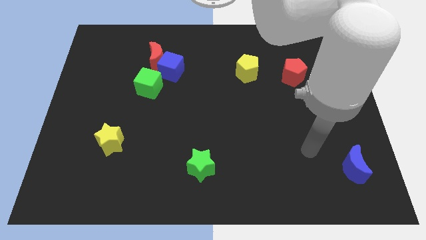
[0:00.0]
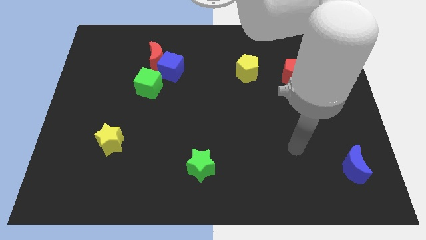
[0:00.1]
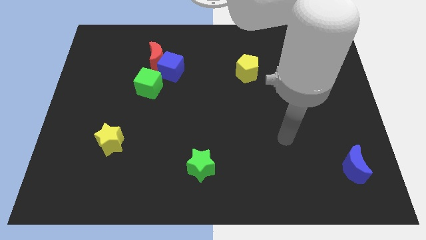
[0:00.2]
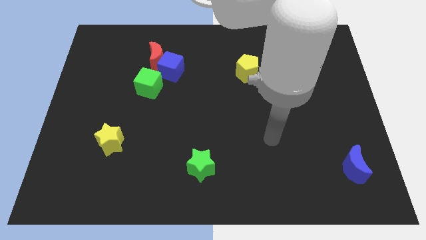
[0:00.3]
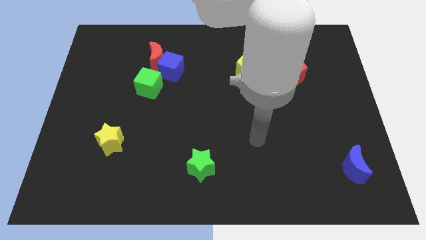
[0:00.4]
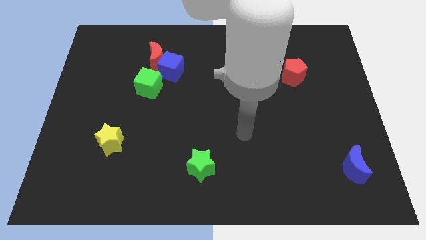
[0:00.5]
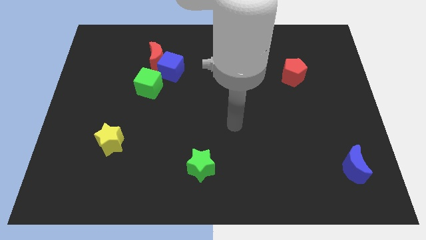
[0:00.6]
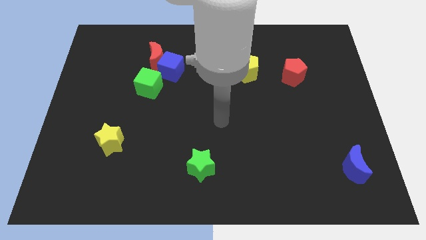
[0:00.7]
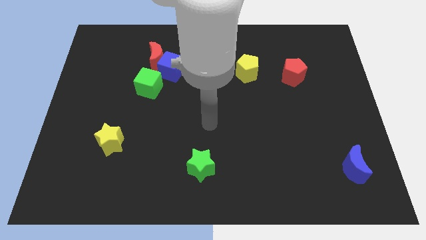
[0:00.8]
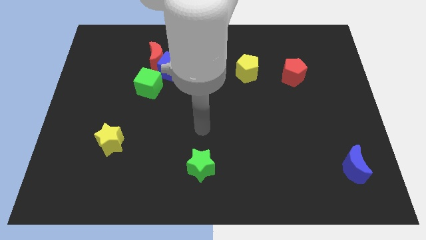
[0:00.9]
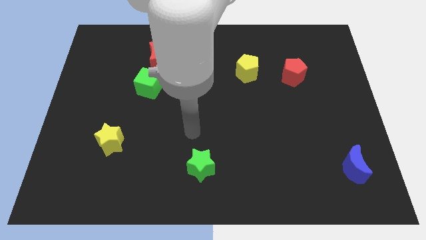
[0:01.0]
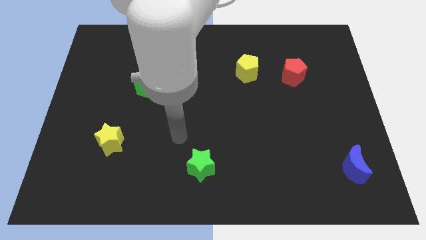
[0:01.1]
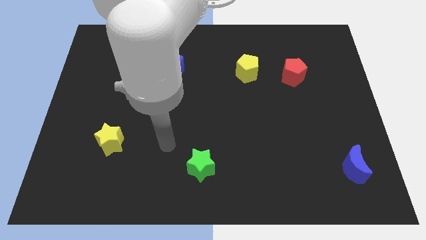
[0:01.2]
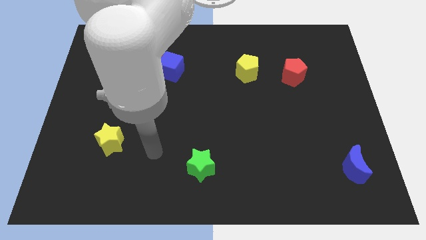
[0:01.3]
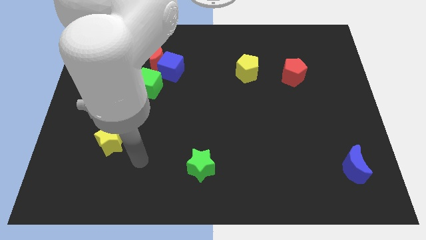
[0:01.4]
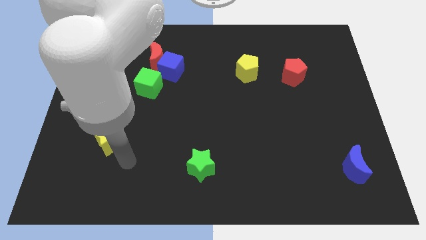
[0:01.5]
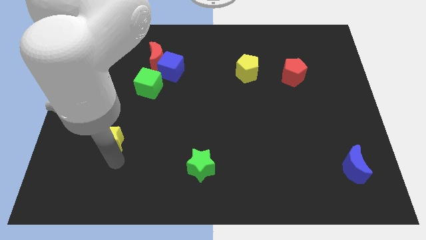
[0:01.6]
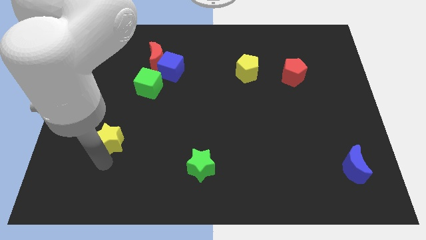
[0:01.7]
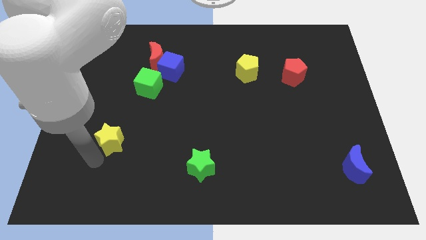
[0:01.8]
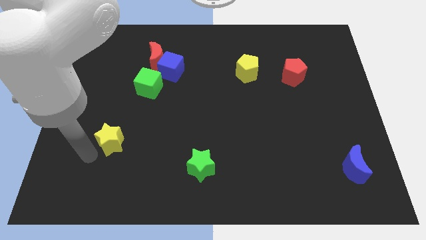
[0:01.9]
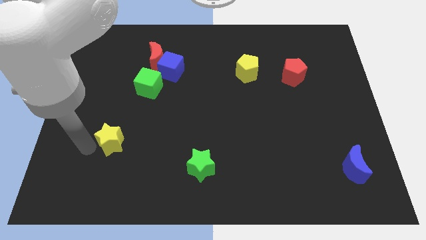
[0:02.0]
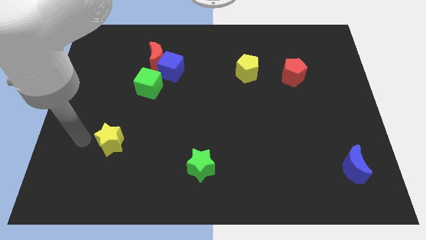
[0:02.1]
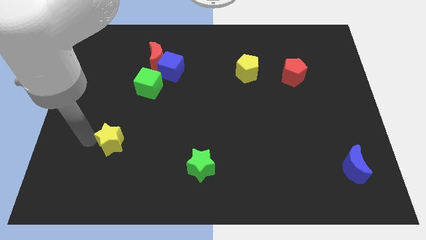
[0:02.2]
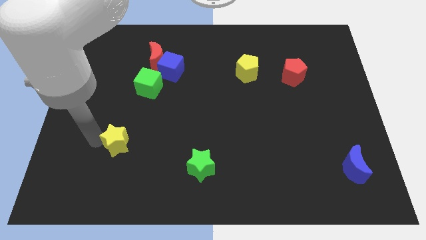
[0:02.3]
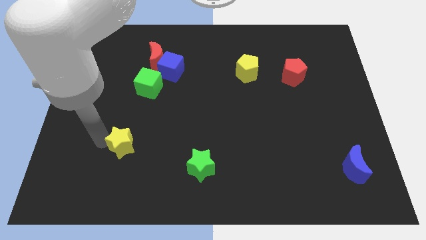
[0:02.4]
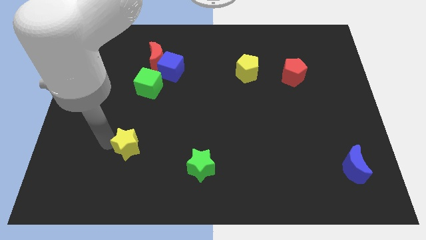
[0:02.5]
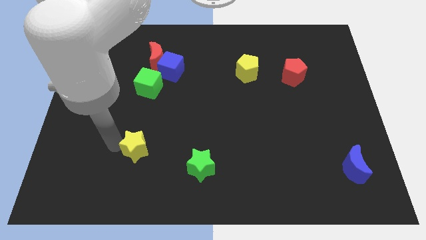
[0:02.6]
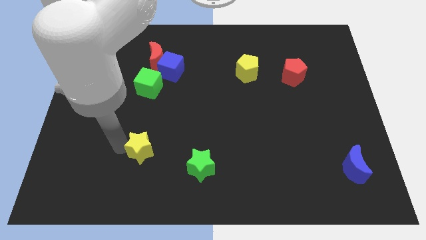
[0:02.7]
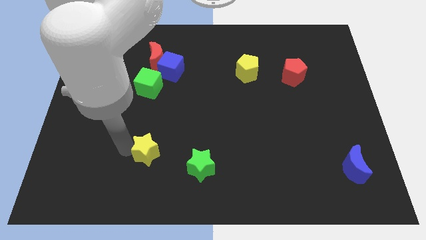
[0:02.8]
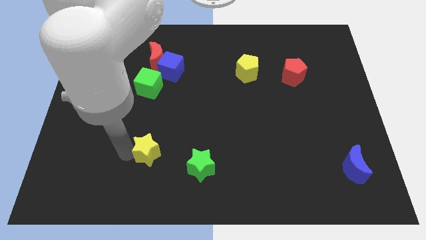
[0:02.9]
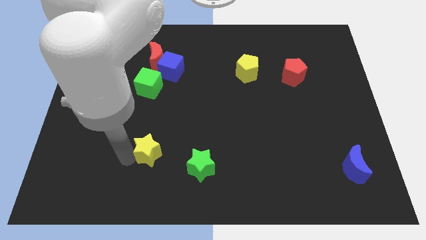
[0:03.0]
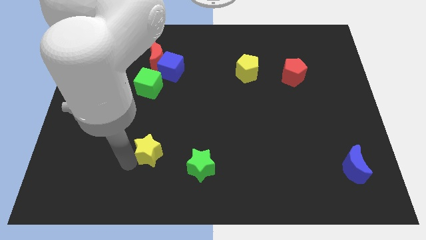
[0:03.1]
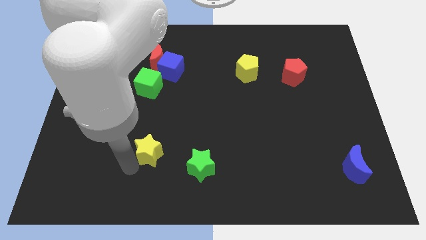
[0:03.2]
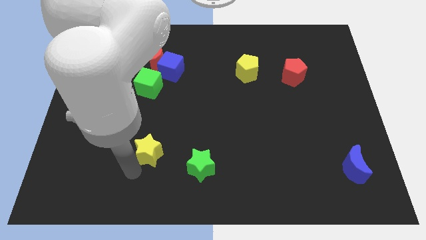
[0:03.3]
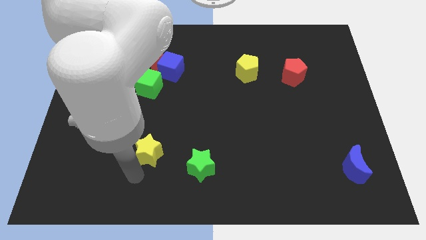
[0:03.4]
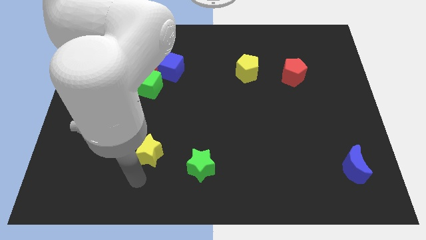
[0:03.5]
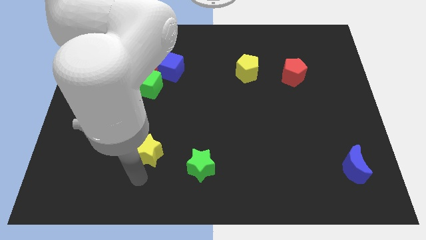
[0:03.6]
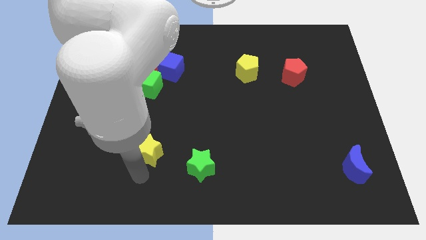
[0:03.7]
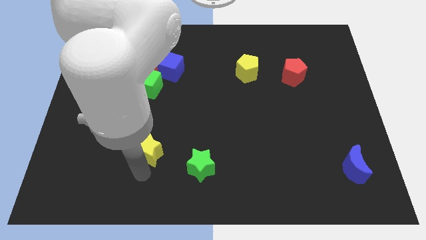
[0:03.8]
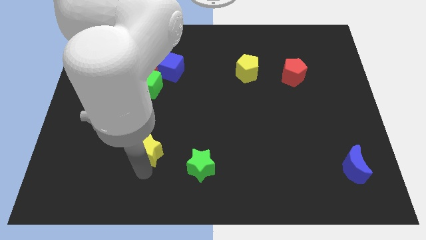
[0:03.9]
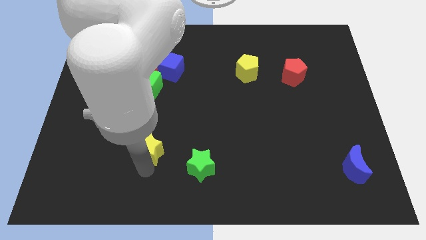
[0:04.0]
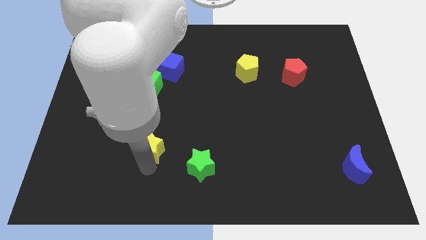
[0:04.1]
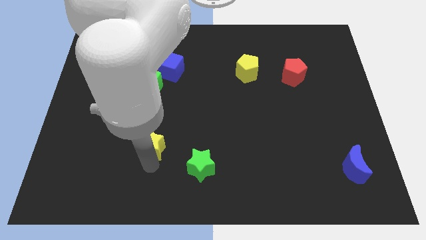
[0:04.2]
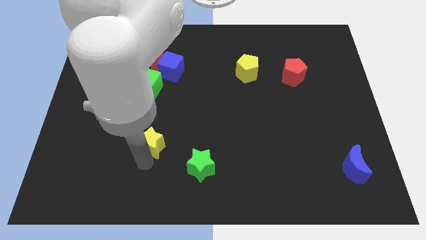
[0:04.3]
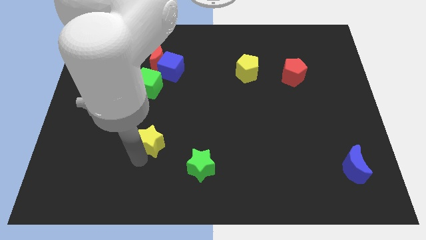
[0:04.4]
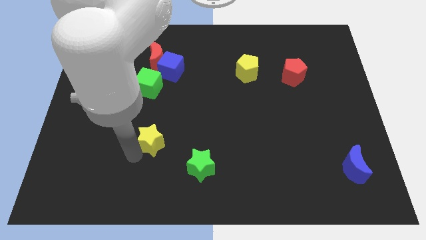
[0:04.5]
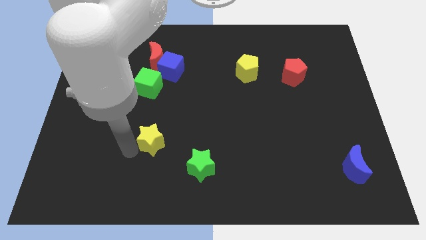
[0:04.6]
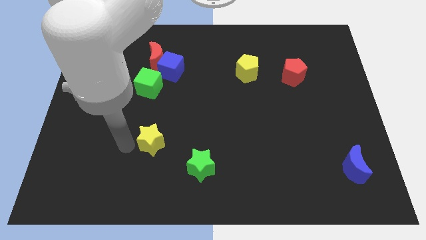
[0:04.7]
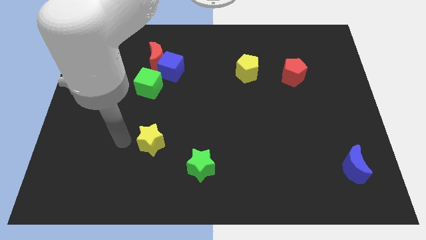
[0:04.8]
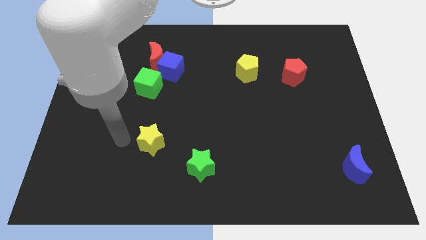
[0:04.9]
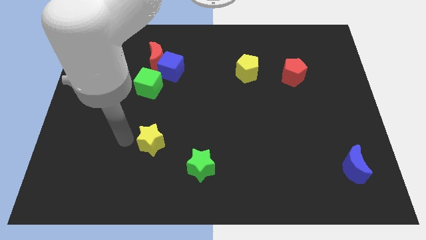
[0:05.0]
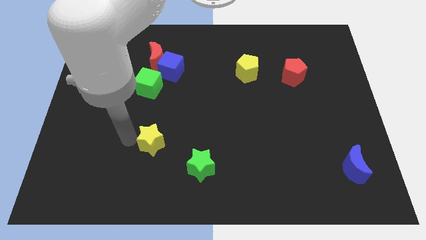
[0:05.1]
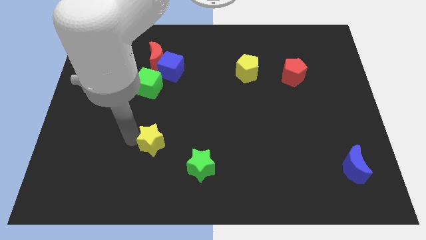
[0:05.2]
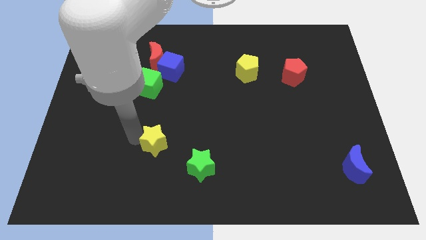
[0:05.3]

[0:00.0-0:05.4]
slide the yellow star diagonally up and to the left of the green star

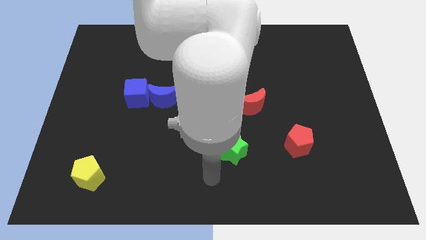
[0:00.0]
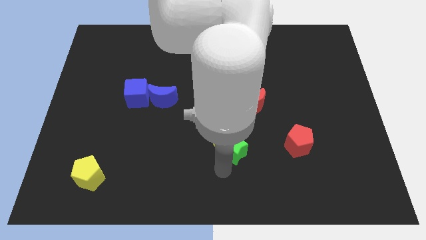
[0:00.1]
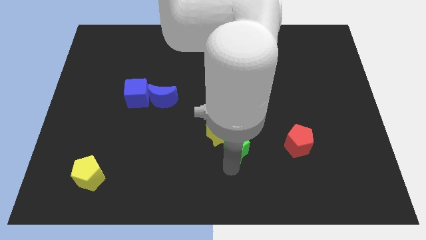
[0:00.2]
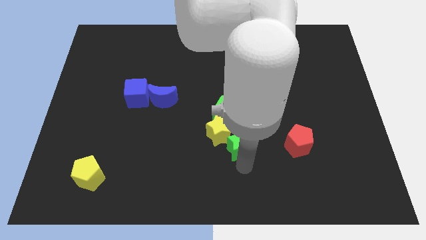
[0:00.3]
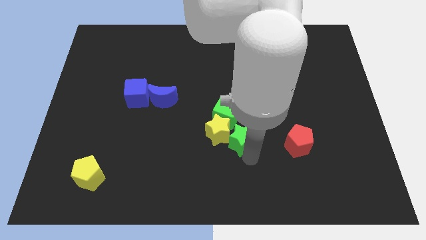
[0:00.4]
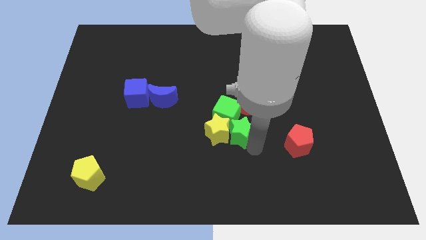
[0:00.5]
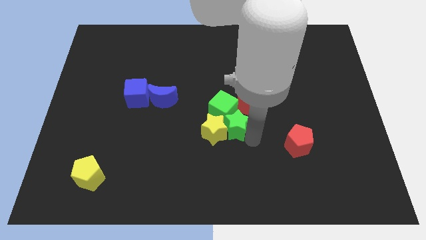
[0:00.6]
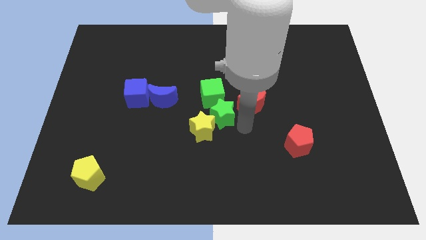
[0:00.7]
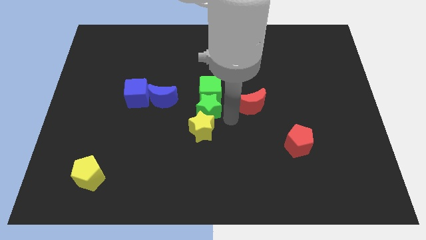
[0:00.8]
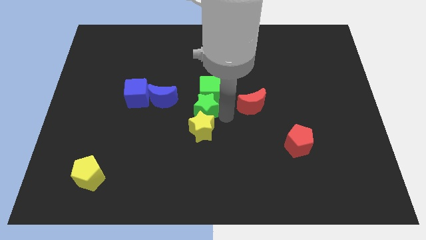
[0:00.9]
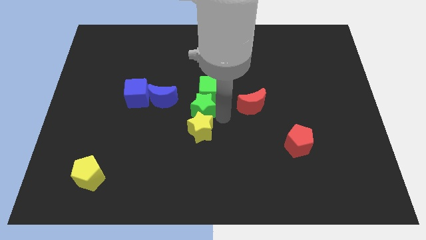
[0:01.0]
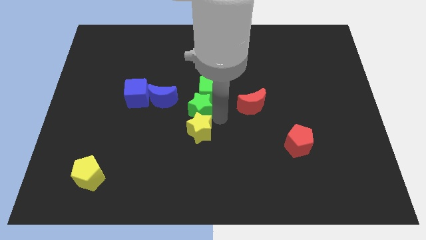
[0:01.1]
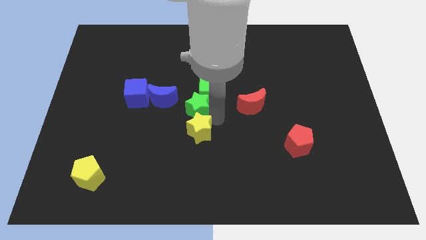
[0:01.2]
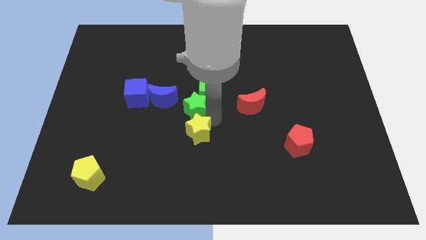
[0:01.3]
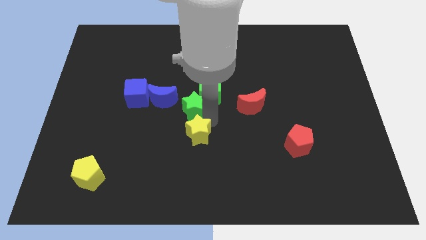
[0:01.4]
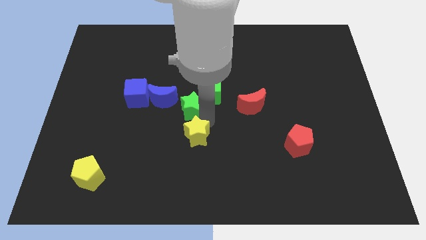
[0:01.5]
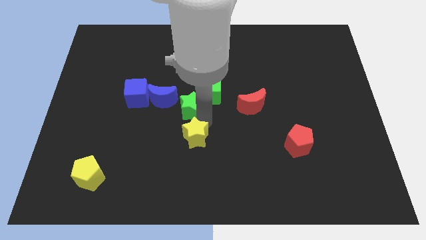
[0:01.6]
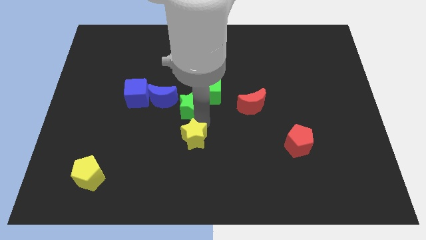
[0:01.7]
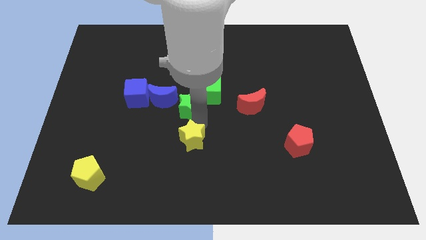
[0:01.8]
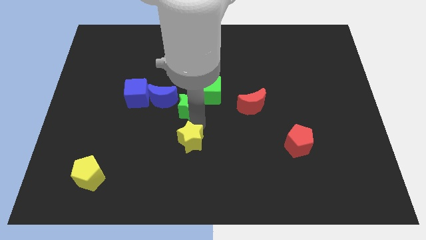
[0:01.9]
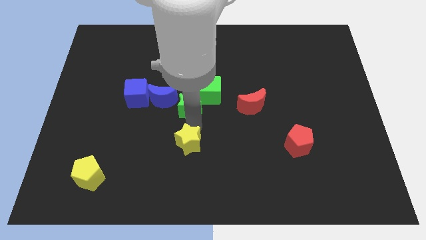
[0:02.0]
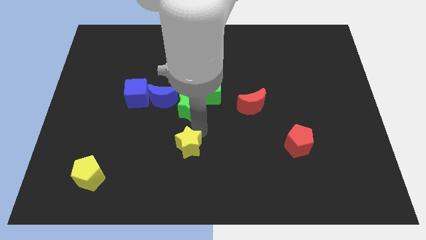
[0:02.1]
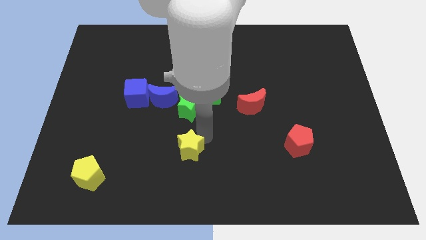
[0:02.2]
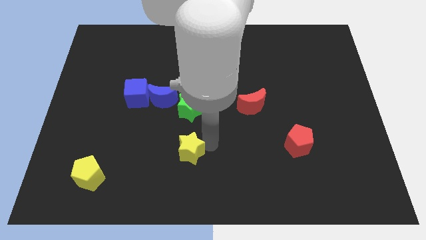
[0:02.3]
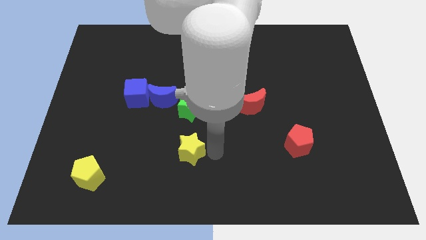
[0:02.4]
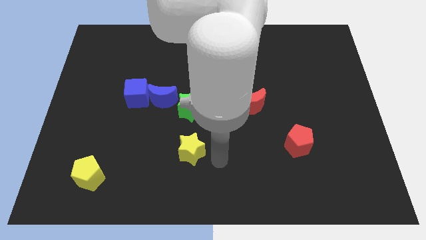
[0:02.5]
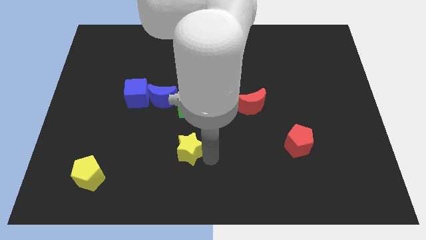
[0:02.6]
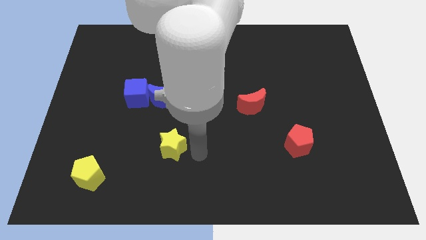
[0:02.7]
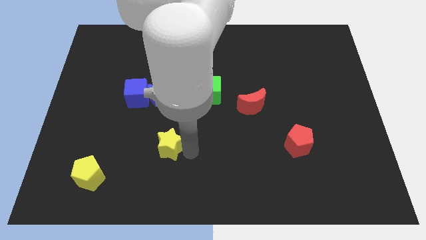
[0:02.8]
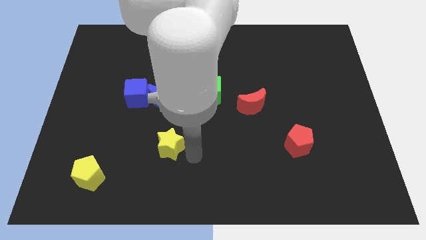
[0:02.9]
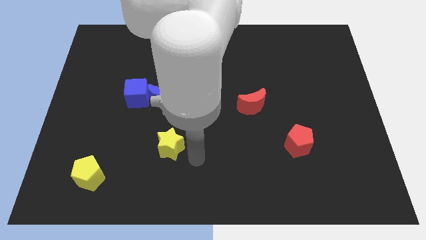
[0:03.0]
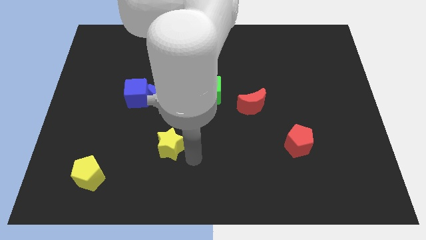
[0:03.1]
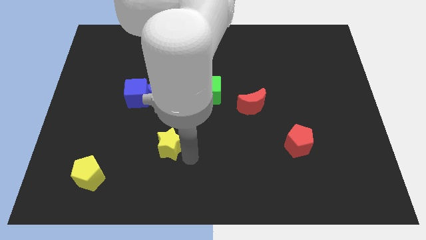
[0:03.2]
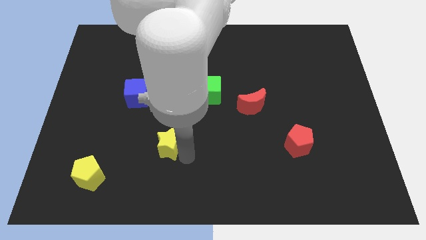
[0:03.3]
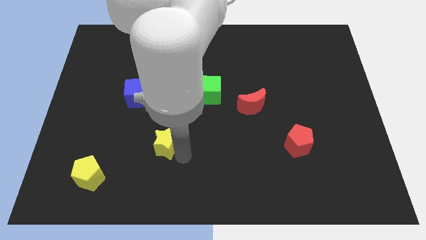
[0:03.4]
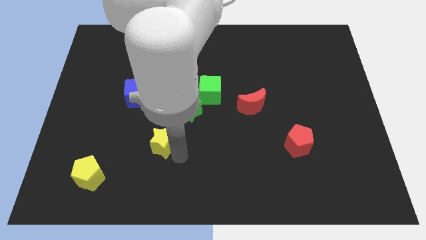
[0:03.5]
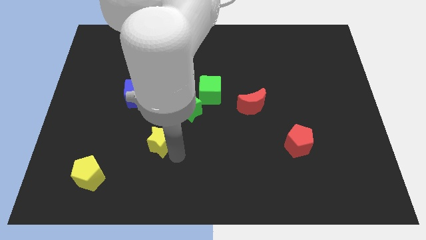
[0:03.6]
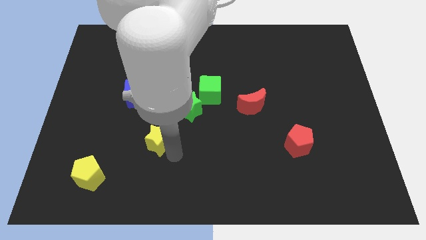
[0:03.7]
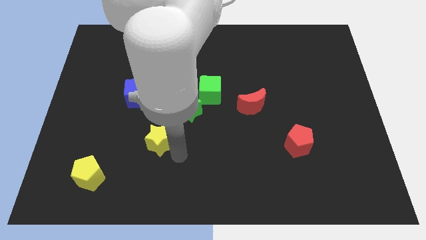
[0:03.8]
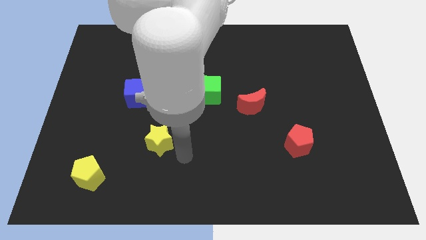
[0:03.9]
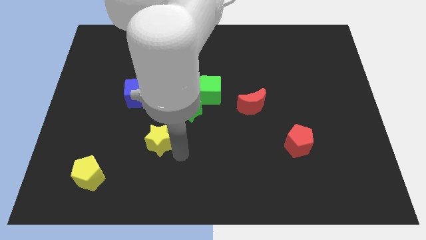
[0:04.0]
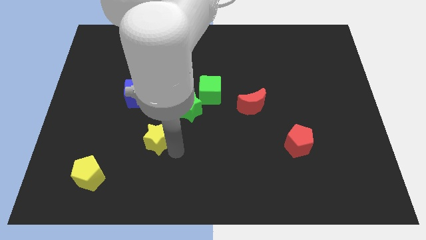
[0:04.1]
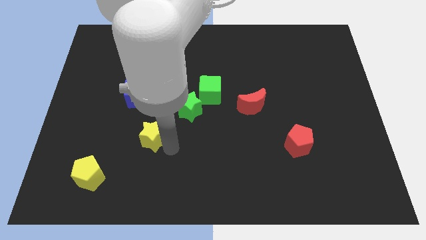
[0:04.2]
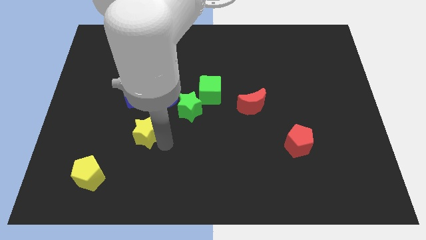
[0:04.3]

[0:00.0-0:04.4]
slide the yellow star below the blue cube
